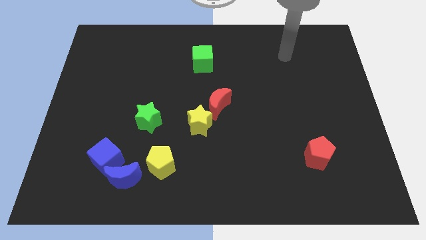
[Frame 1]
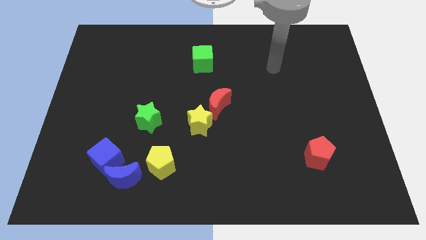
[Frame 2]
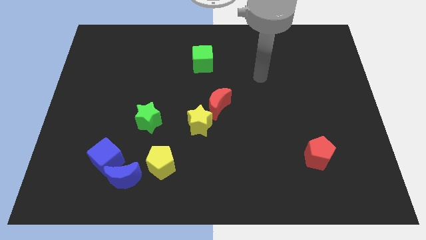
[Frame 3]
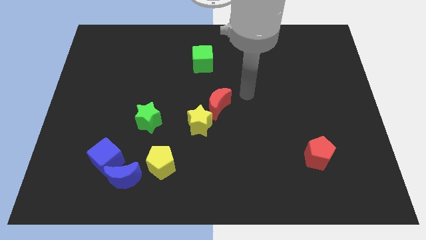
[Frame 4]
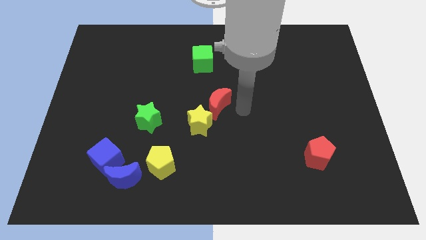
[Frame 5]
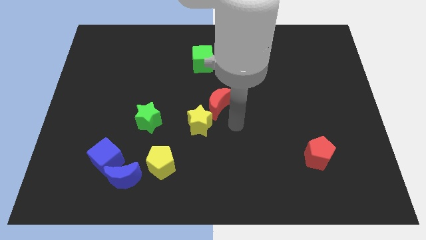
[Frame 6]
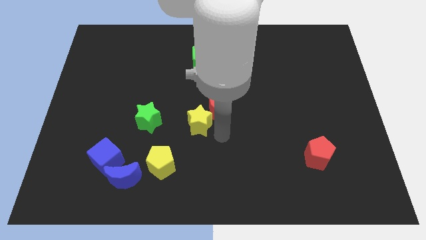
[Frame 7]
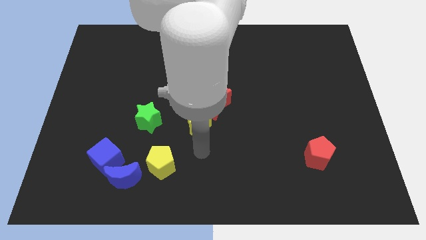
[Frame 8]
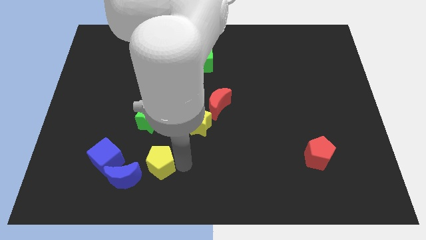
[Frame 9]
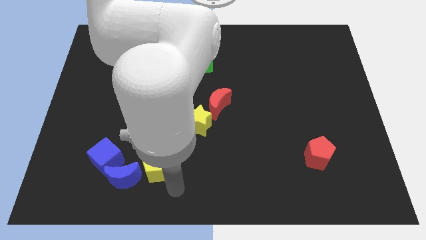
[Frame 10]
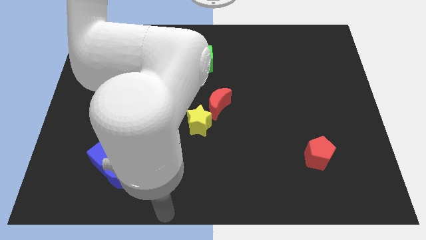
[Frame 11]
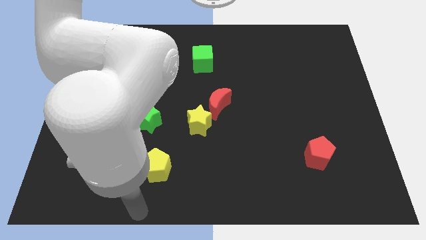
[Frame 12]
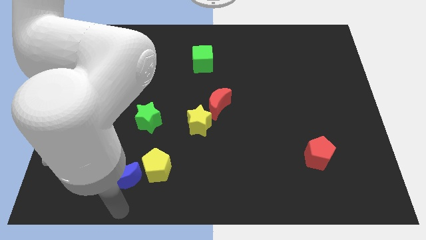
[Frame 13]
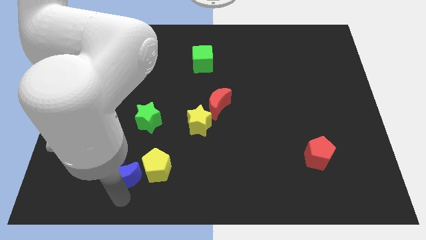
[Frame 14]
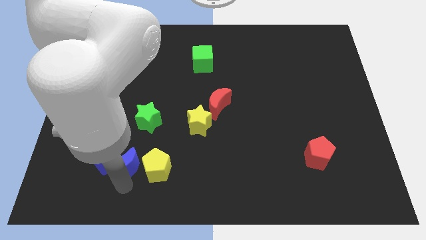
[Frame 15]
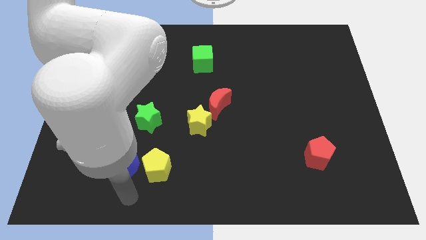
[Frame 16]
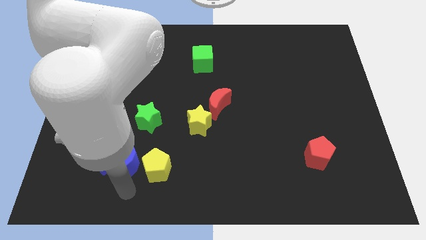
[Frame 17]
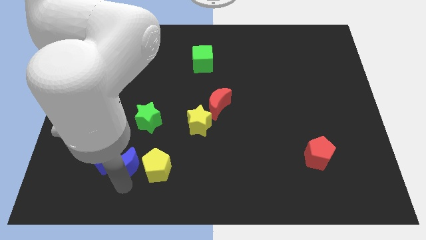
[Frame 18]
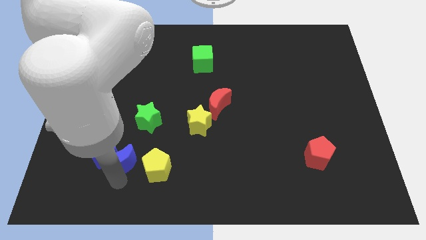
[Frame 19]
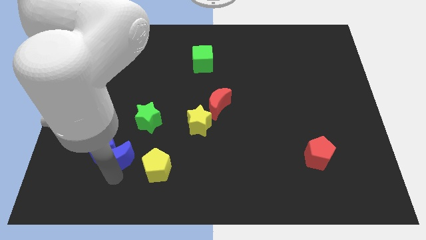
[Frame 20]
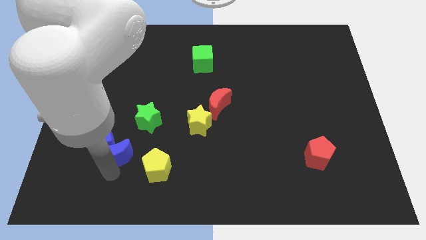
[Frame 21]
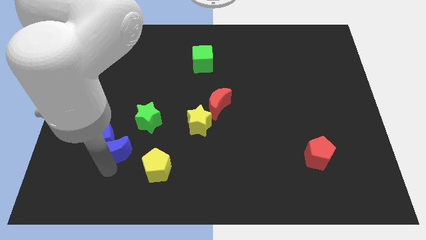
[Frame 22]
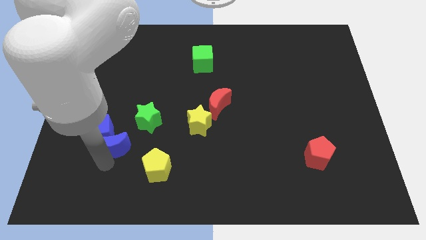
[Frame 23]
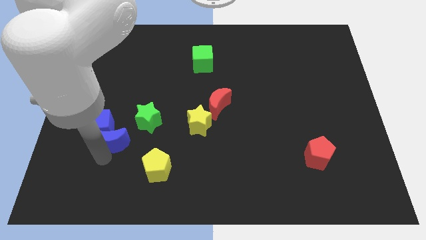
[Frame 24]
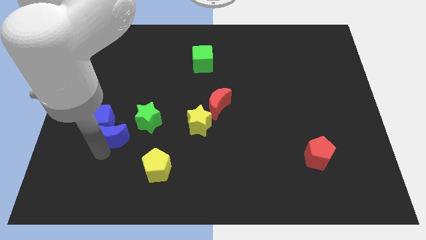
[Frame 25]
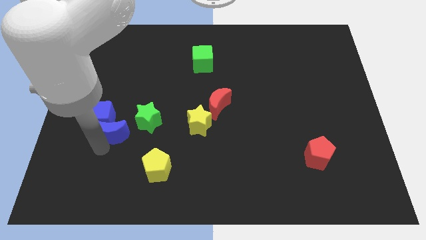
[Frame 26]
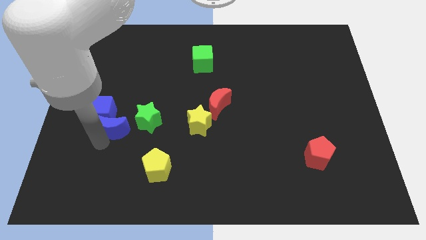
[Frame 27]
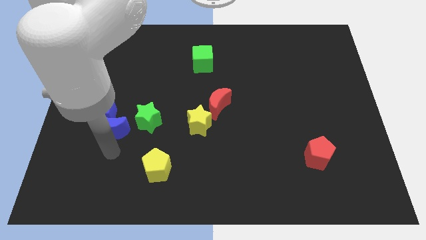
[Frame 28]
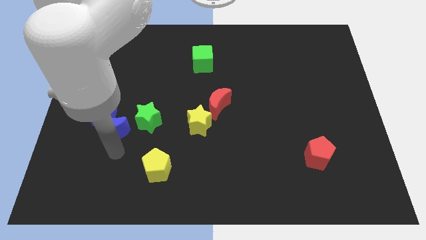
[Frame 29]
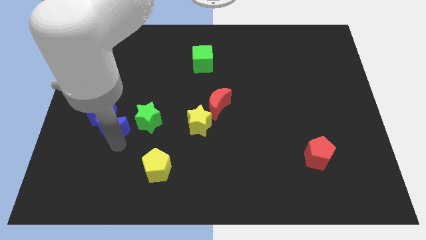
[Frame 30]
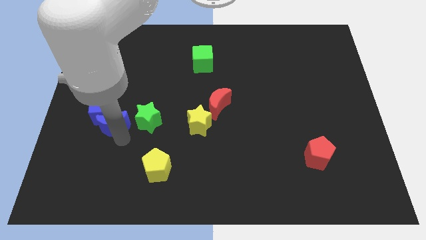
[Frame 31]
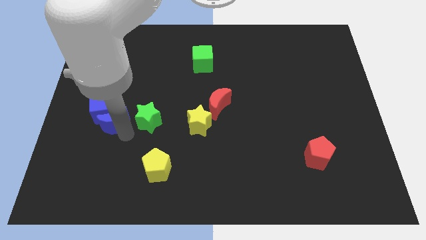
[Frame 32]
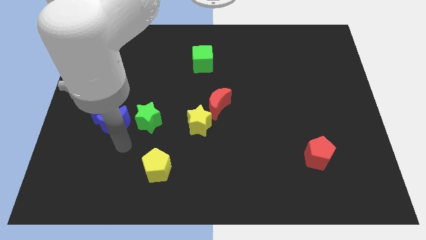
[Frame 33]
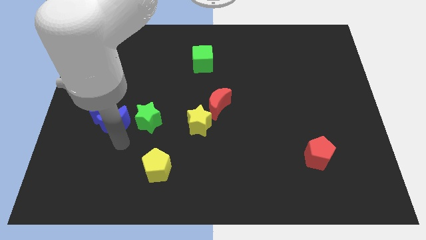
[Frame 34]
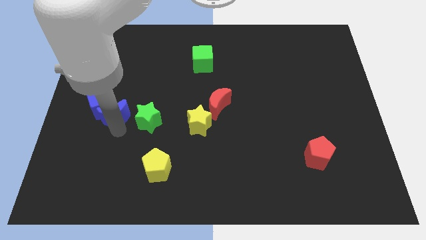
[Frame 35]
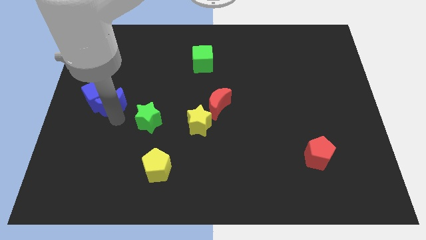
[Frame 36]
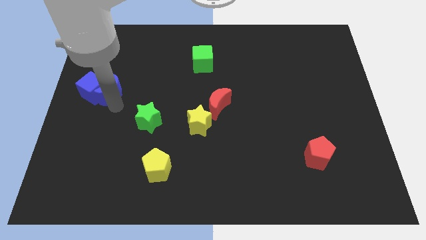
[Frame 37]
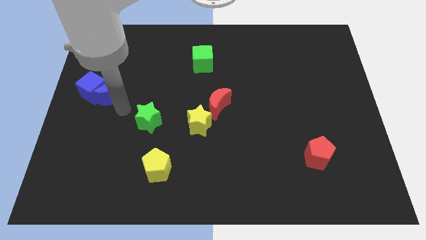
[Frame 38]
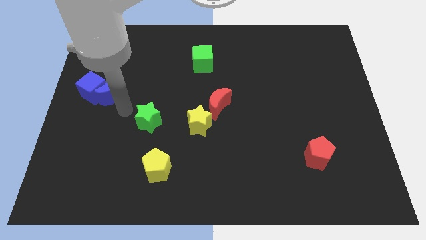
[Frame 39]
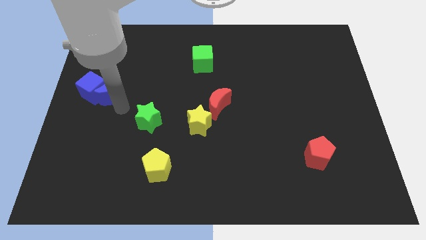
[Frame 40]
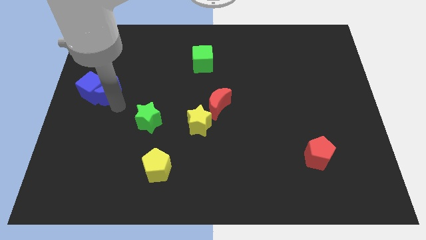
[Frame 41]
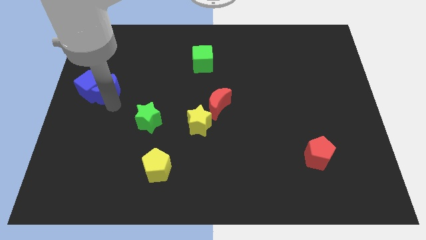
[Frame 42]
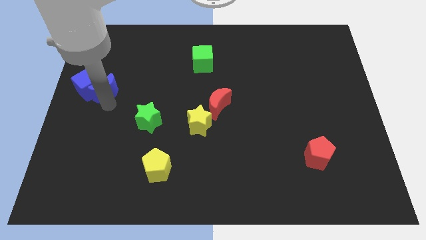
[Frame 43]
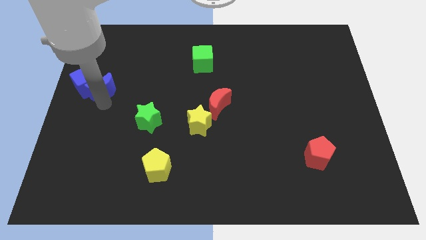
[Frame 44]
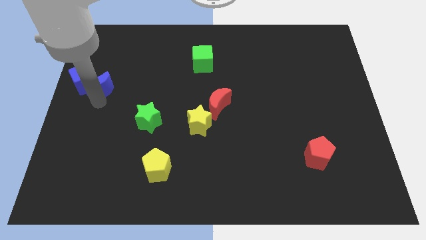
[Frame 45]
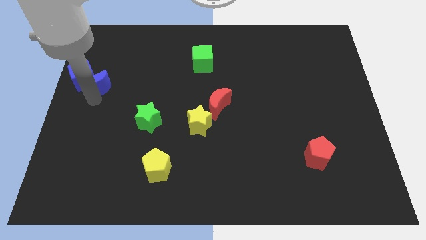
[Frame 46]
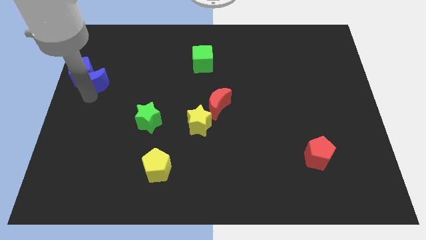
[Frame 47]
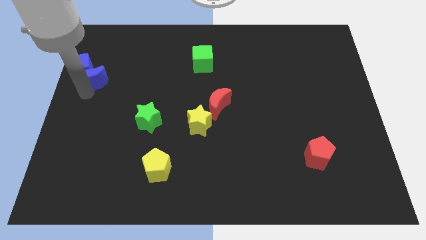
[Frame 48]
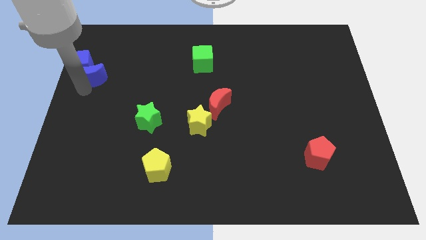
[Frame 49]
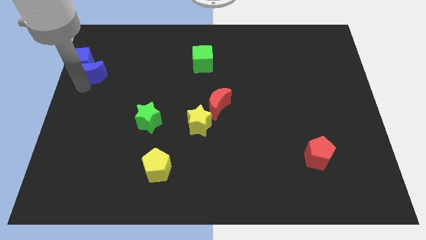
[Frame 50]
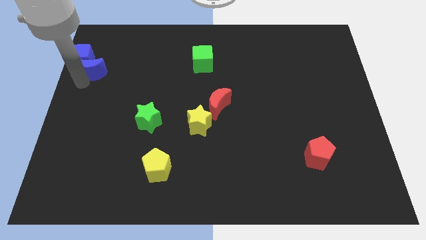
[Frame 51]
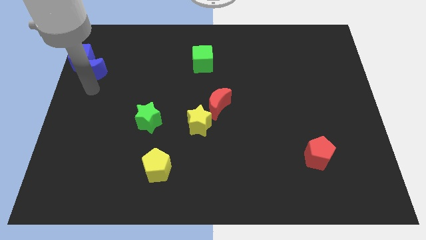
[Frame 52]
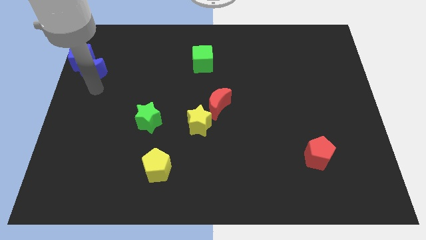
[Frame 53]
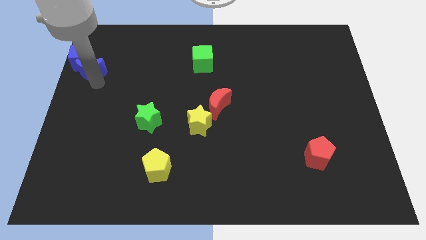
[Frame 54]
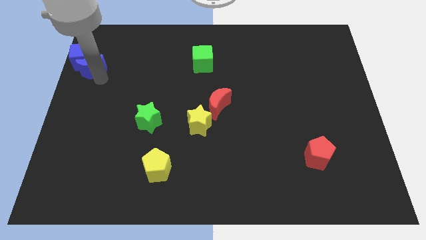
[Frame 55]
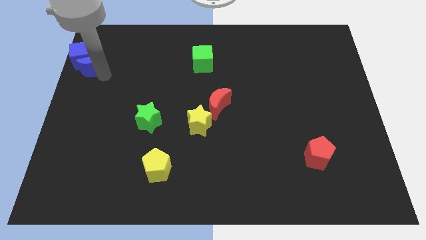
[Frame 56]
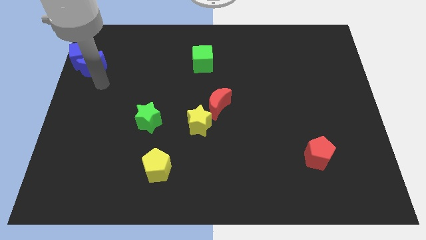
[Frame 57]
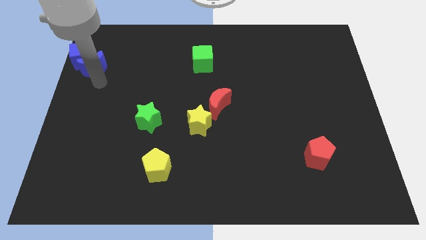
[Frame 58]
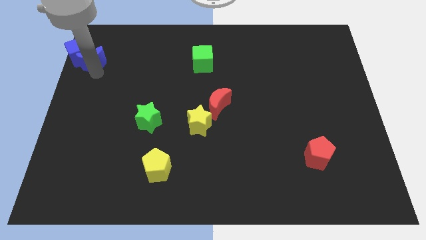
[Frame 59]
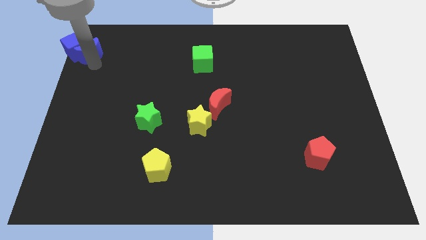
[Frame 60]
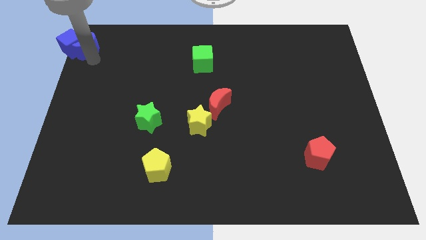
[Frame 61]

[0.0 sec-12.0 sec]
move the blue moon to the top left corner

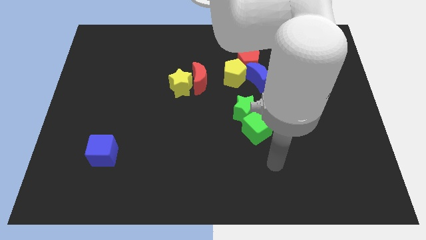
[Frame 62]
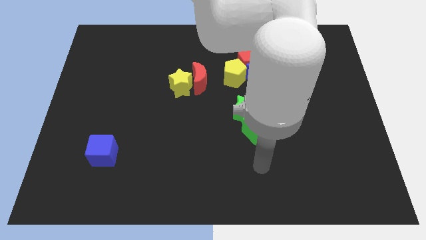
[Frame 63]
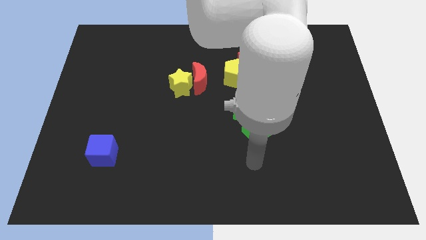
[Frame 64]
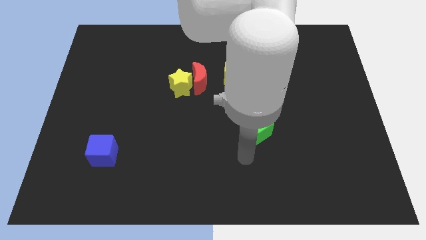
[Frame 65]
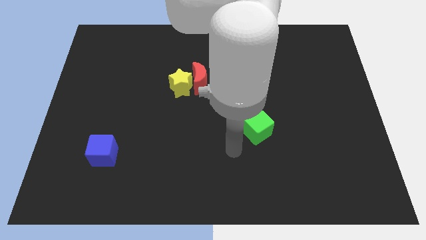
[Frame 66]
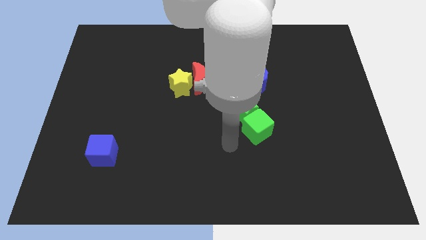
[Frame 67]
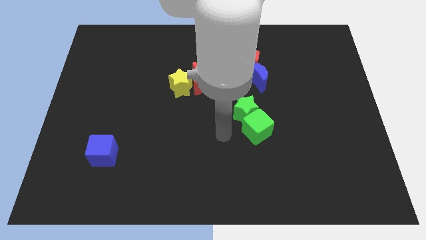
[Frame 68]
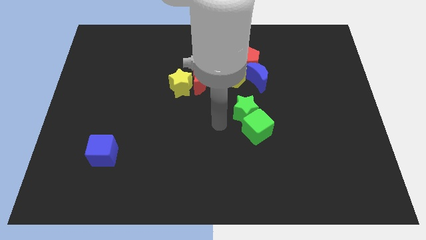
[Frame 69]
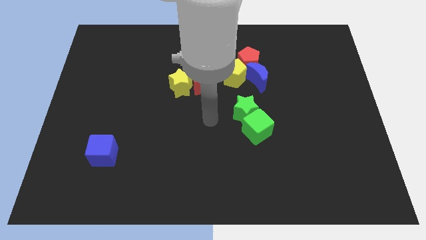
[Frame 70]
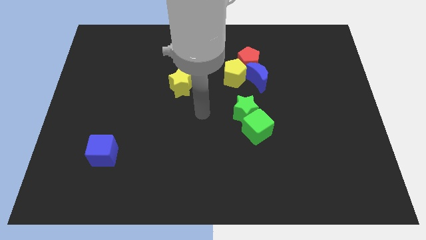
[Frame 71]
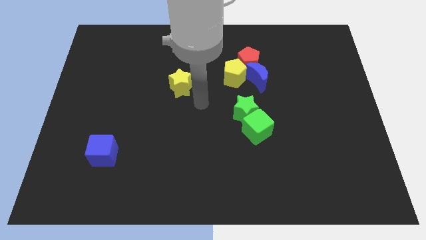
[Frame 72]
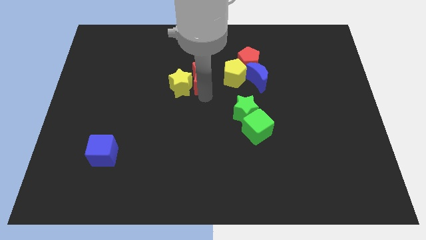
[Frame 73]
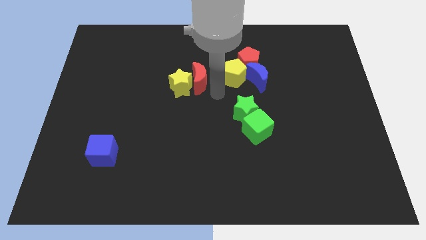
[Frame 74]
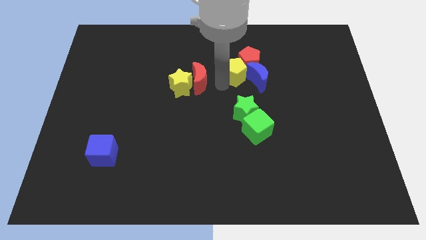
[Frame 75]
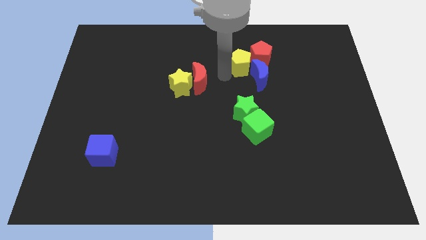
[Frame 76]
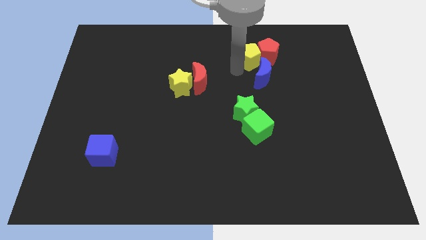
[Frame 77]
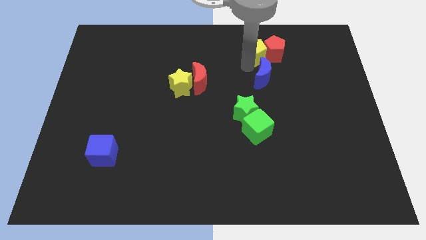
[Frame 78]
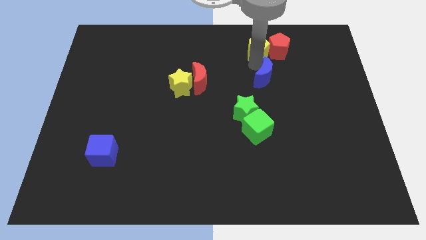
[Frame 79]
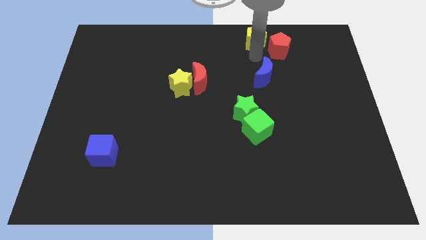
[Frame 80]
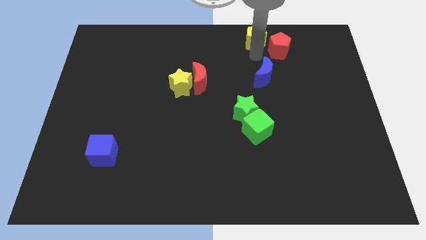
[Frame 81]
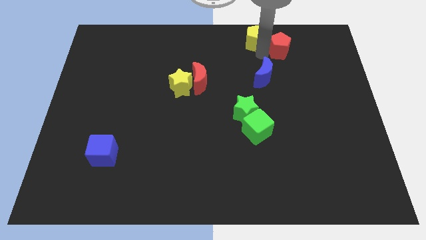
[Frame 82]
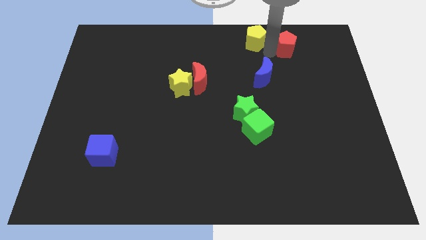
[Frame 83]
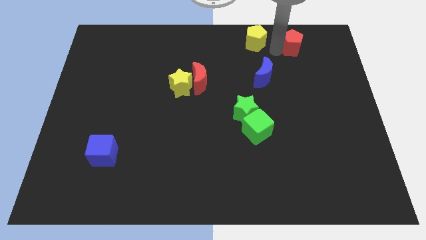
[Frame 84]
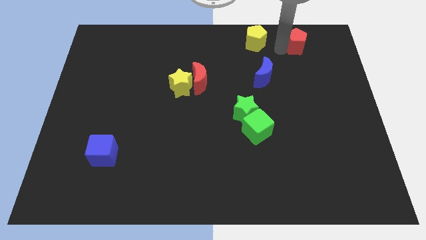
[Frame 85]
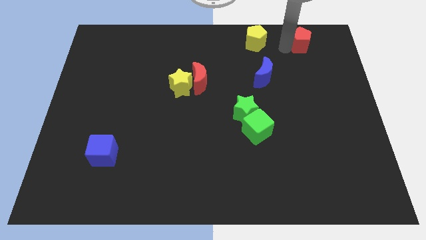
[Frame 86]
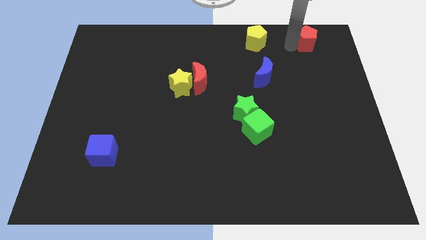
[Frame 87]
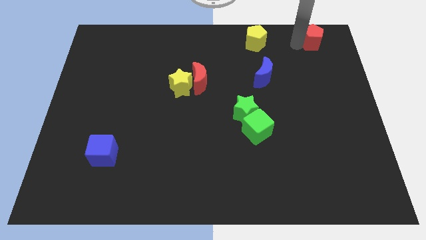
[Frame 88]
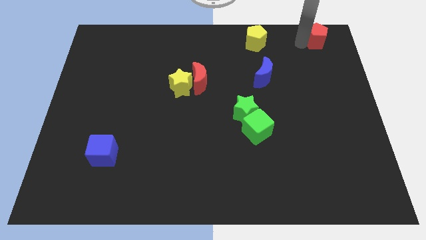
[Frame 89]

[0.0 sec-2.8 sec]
slide the red pentagon to the top right of the board
